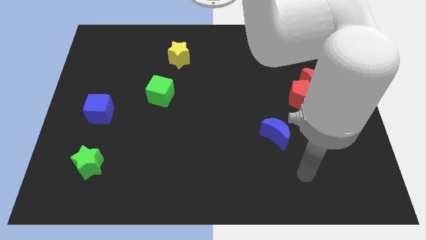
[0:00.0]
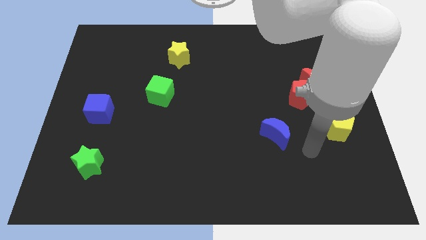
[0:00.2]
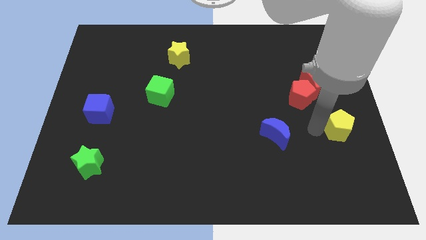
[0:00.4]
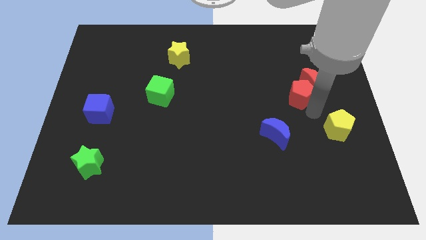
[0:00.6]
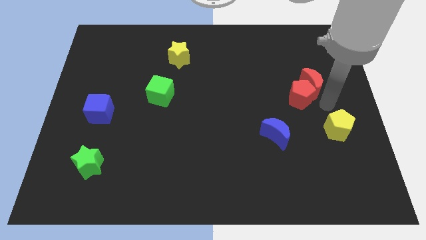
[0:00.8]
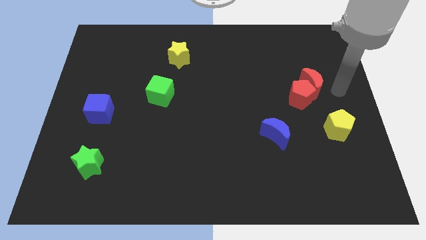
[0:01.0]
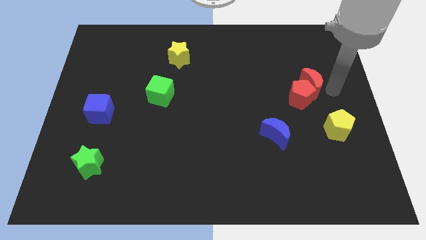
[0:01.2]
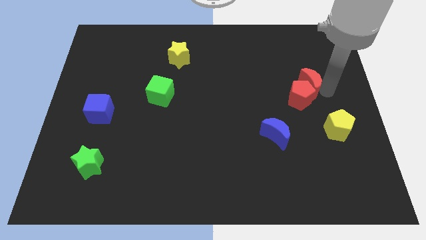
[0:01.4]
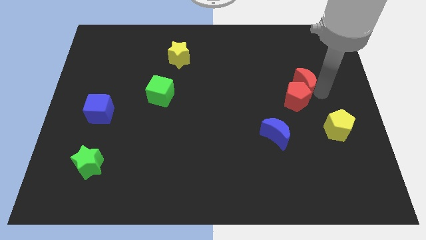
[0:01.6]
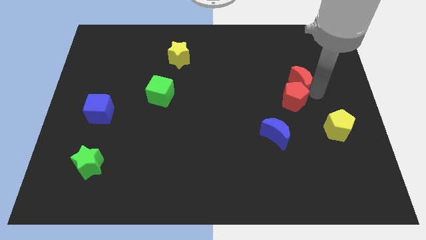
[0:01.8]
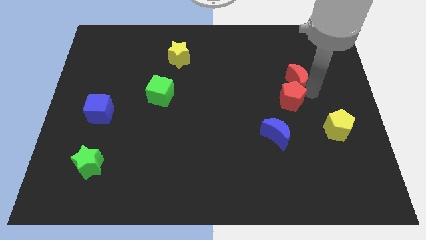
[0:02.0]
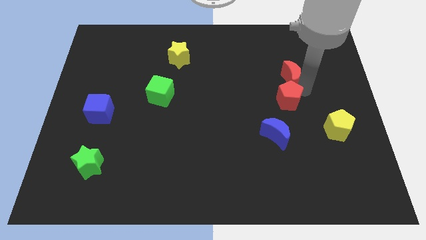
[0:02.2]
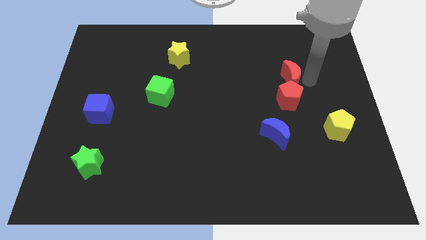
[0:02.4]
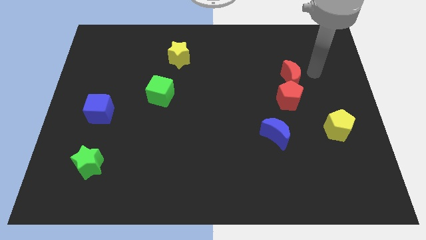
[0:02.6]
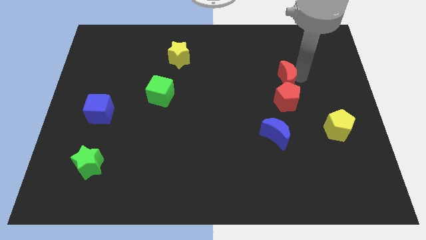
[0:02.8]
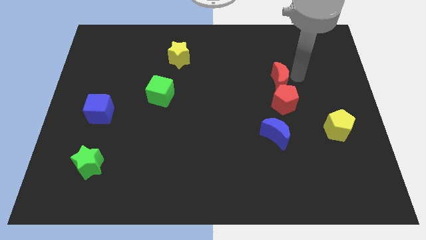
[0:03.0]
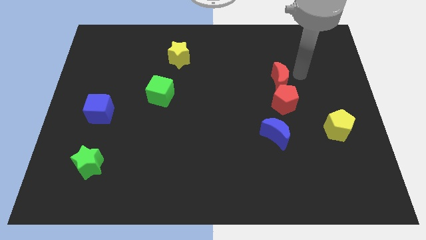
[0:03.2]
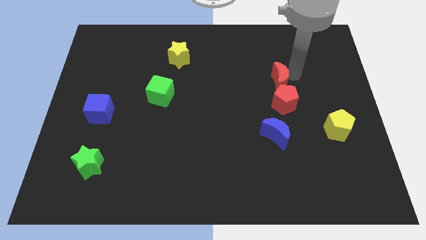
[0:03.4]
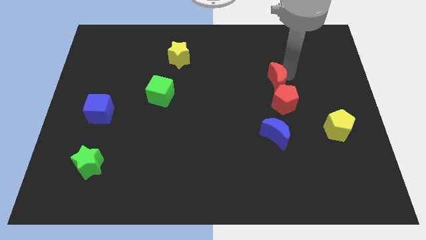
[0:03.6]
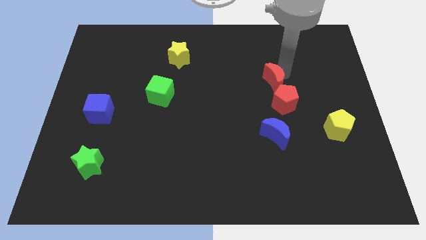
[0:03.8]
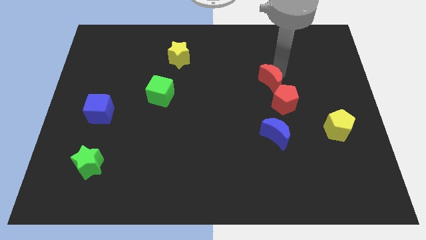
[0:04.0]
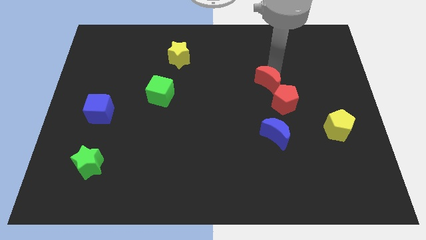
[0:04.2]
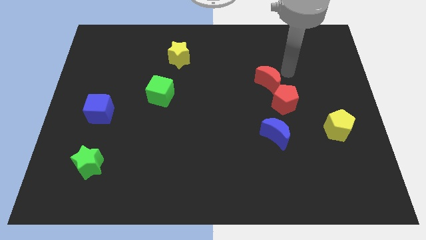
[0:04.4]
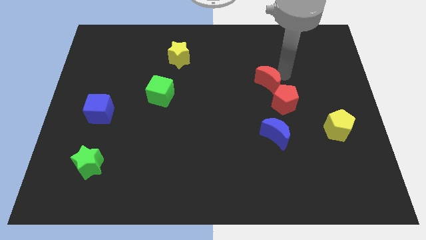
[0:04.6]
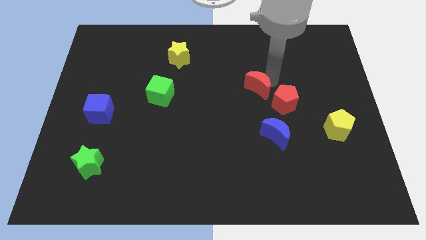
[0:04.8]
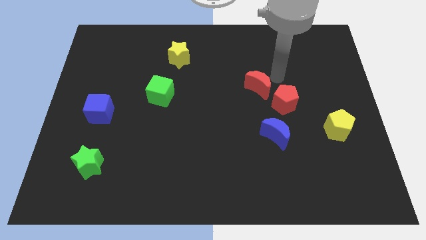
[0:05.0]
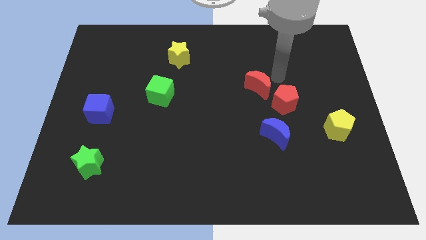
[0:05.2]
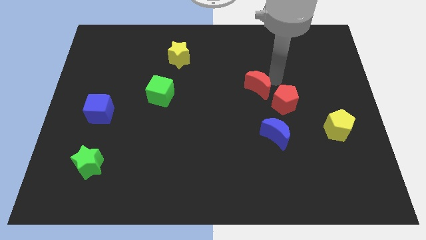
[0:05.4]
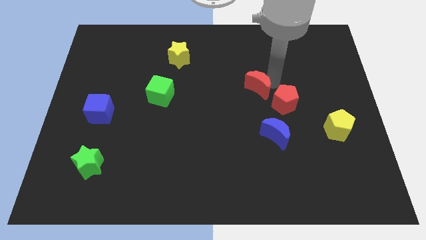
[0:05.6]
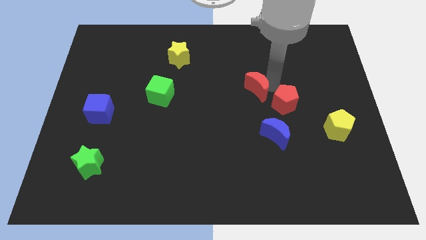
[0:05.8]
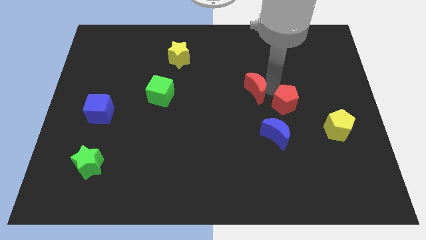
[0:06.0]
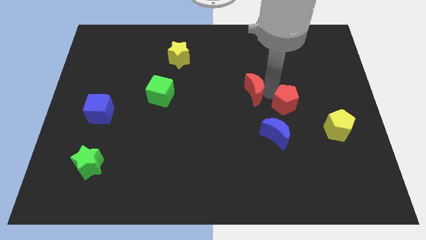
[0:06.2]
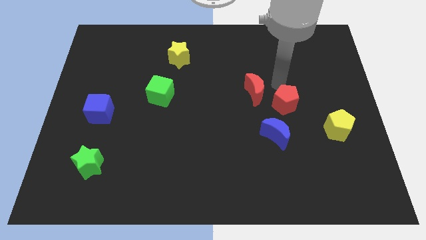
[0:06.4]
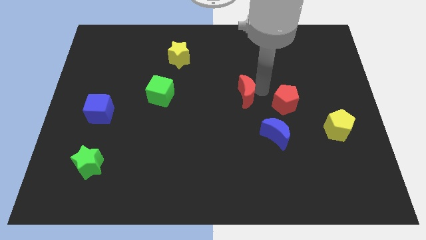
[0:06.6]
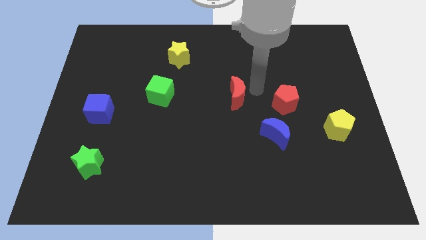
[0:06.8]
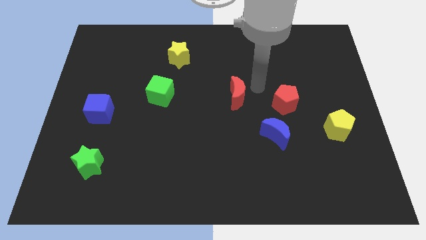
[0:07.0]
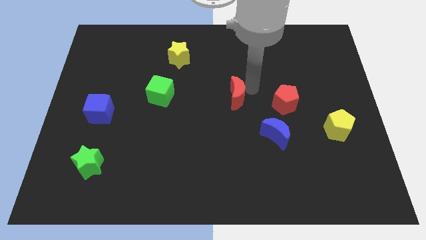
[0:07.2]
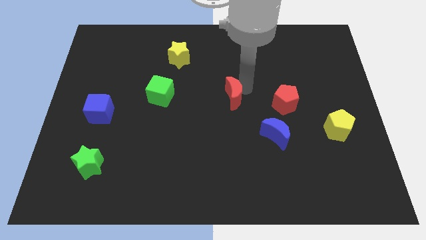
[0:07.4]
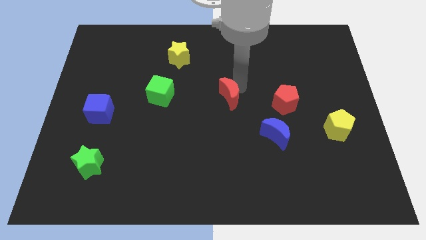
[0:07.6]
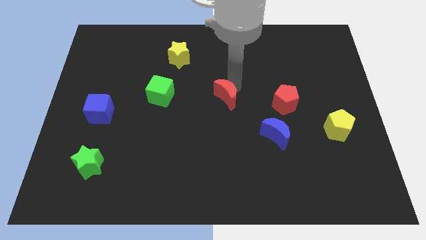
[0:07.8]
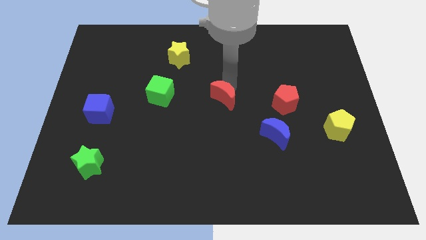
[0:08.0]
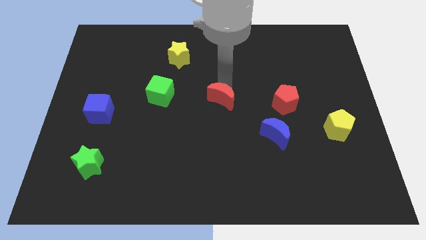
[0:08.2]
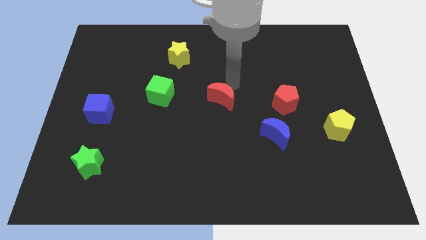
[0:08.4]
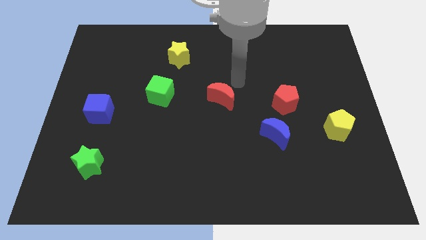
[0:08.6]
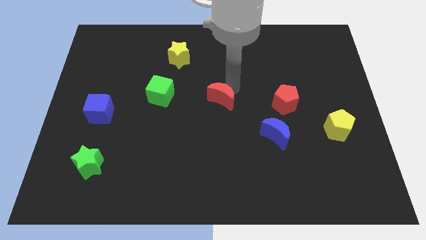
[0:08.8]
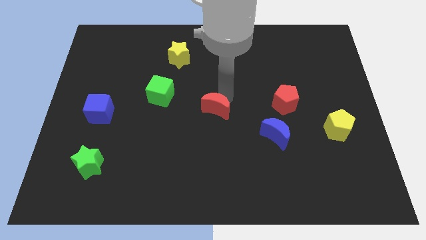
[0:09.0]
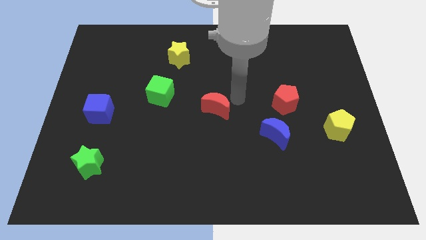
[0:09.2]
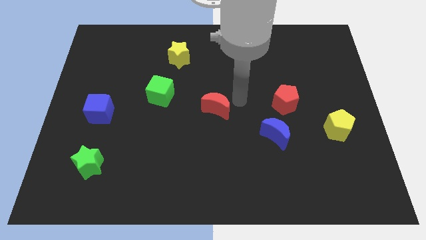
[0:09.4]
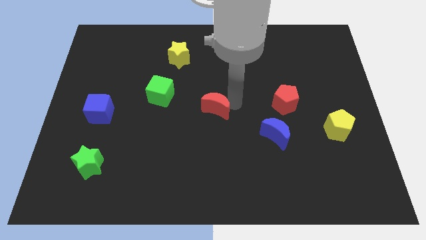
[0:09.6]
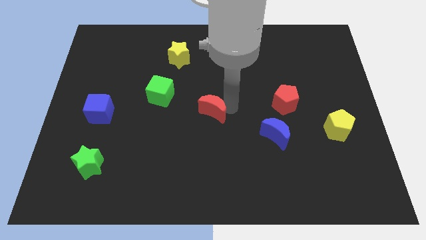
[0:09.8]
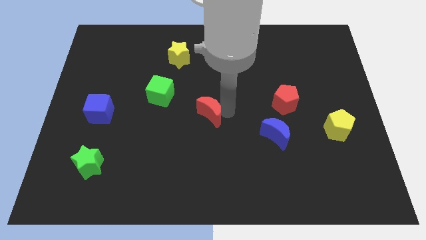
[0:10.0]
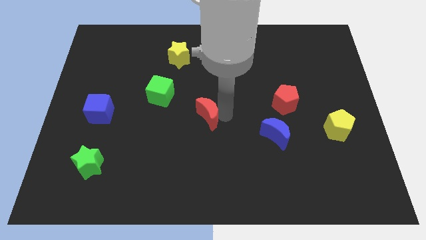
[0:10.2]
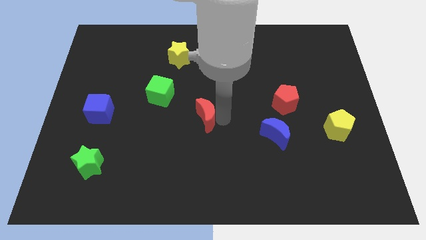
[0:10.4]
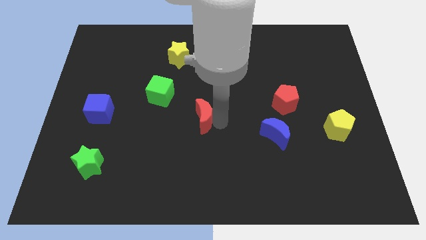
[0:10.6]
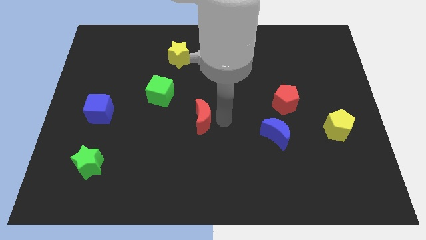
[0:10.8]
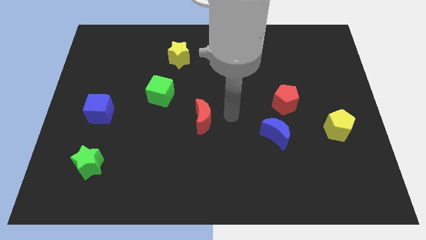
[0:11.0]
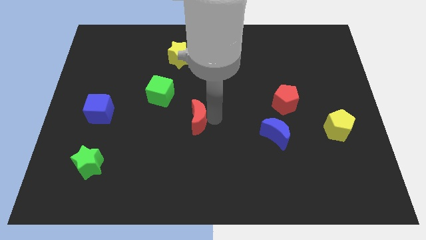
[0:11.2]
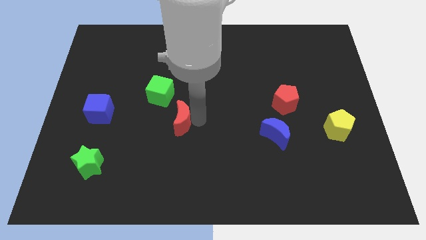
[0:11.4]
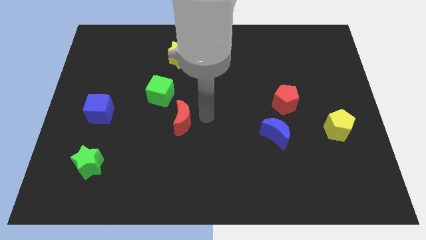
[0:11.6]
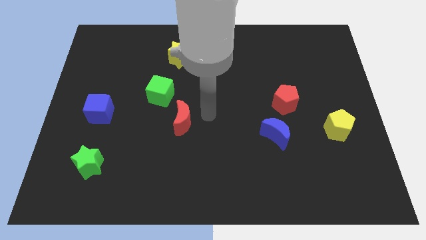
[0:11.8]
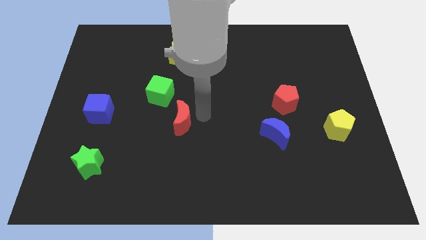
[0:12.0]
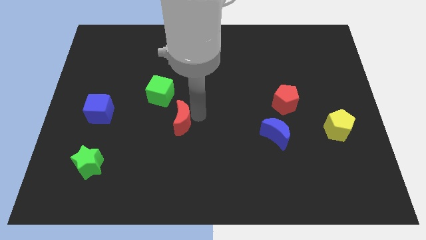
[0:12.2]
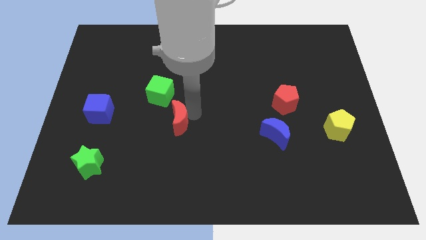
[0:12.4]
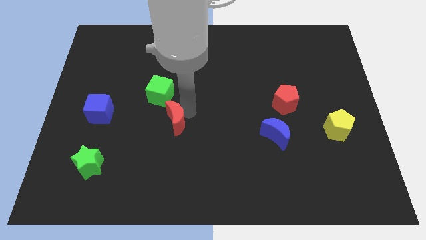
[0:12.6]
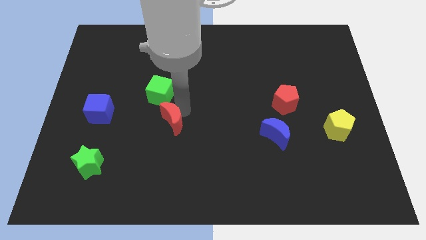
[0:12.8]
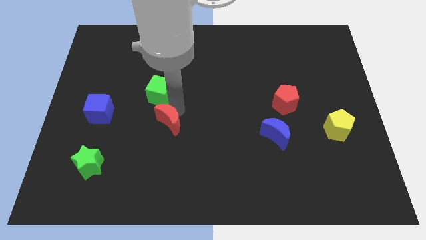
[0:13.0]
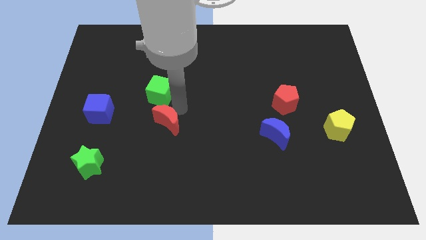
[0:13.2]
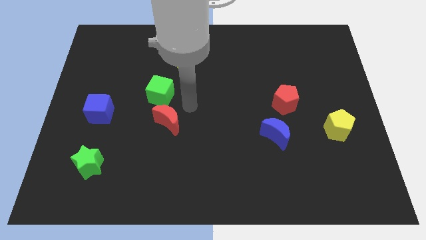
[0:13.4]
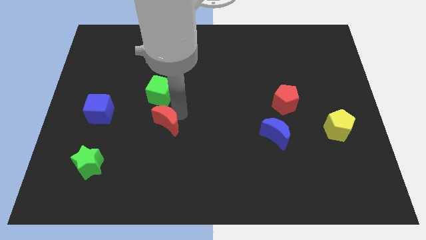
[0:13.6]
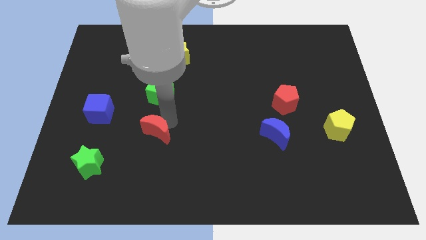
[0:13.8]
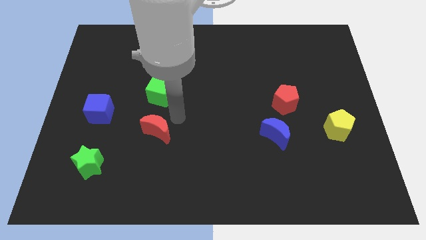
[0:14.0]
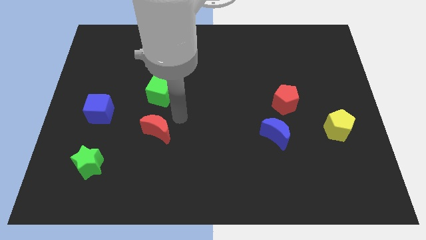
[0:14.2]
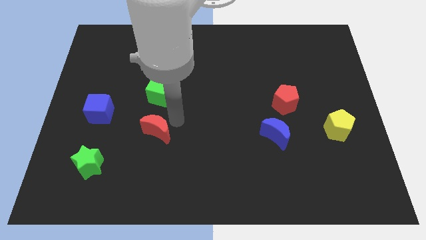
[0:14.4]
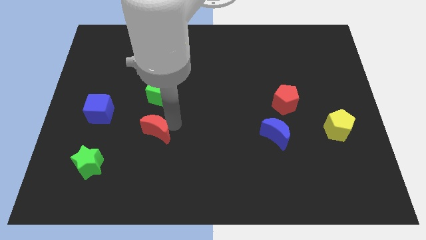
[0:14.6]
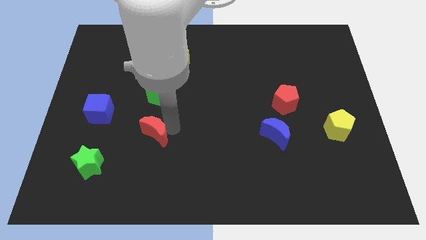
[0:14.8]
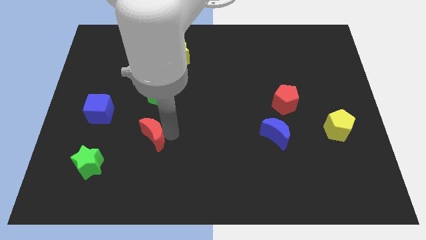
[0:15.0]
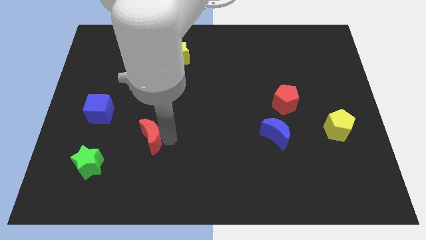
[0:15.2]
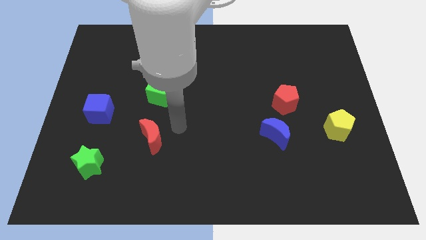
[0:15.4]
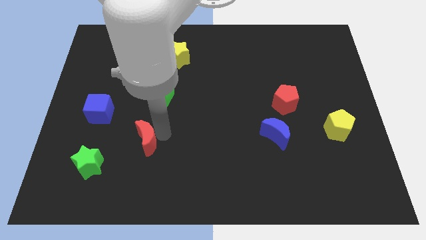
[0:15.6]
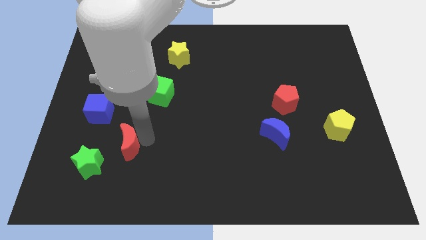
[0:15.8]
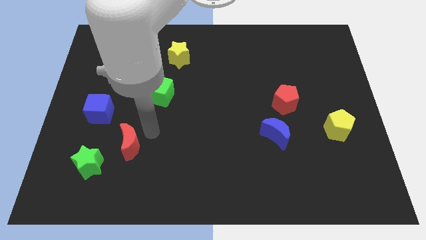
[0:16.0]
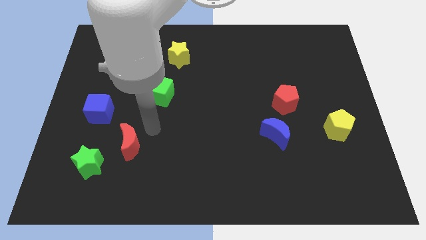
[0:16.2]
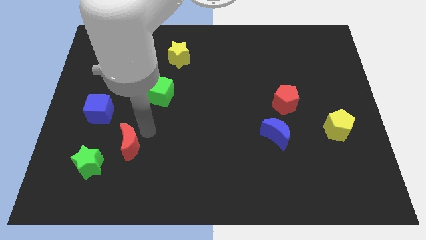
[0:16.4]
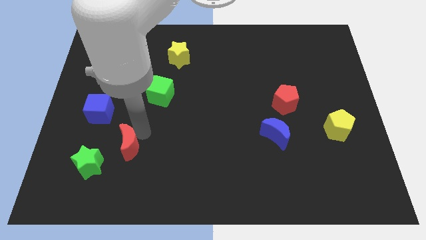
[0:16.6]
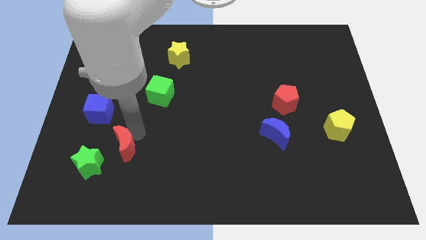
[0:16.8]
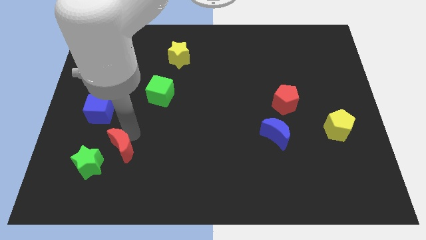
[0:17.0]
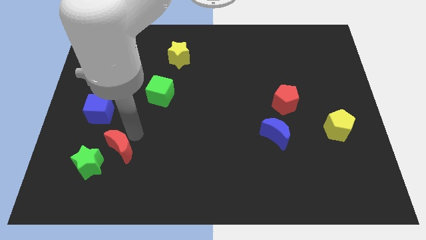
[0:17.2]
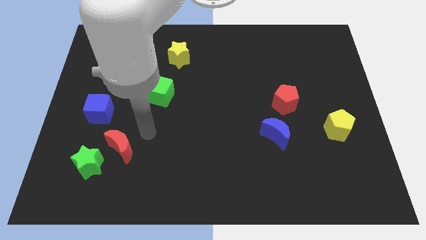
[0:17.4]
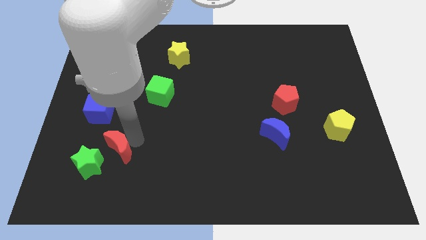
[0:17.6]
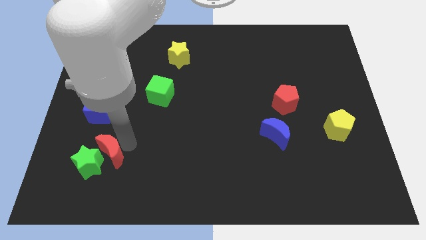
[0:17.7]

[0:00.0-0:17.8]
put the red moon towards the green star
